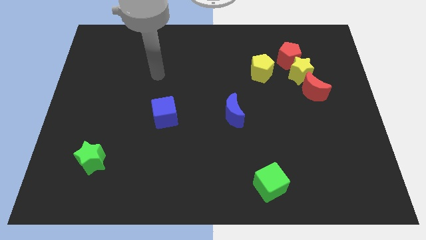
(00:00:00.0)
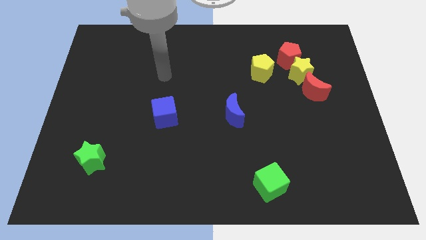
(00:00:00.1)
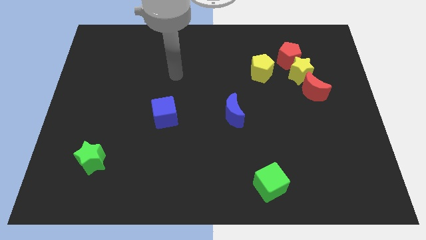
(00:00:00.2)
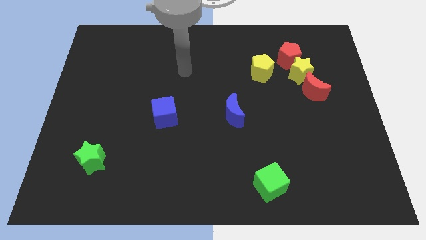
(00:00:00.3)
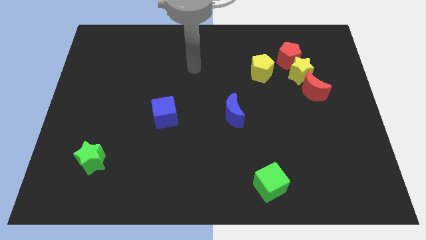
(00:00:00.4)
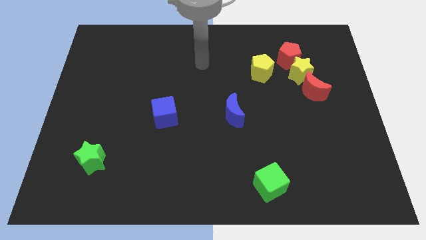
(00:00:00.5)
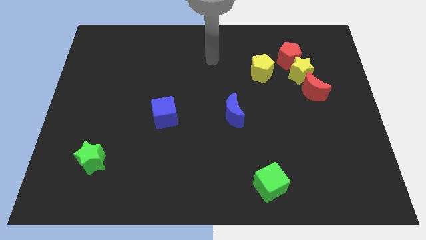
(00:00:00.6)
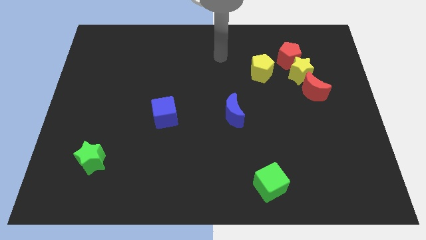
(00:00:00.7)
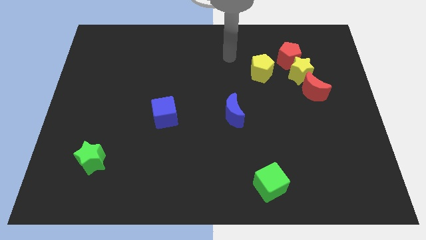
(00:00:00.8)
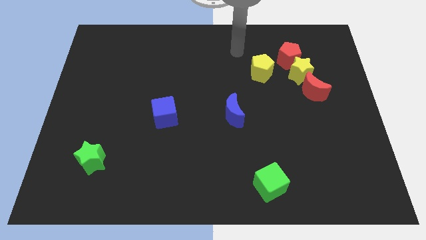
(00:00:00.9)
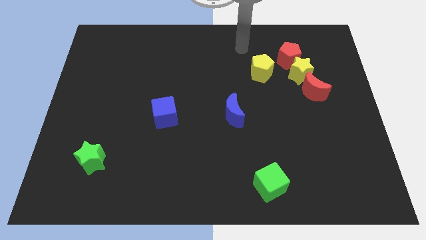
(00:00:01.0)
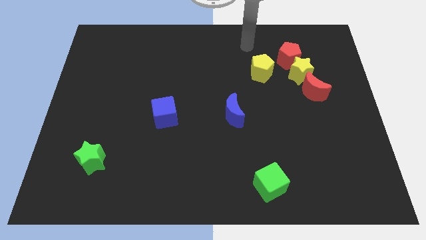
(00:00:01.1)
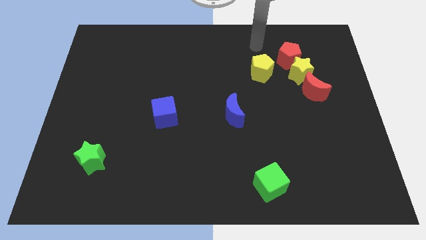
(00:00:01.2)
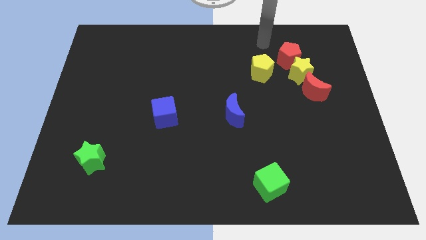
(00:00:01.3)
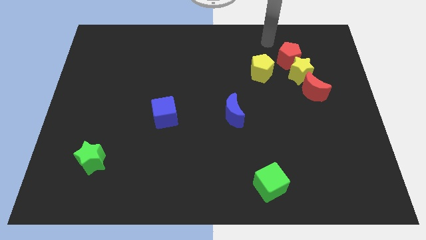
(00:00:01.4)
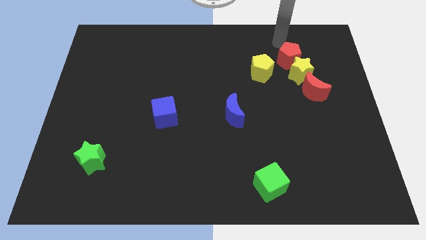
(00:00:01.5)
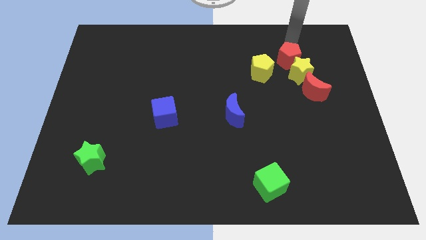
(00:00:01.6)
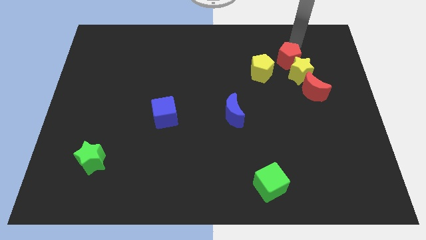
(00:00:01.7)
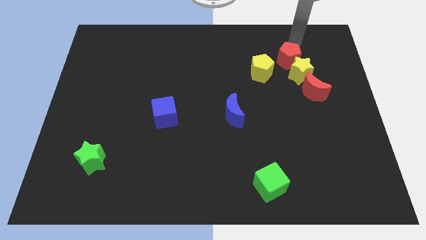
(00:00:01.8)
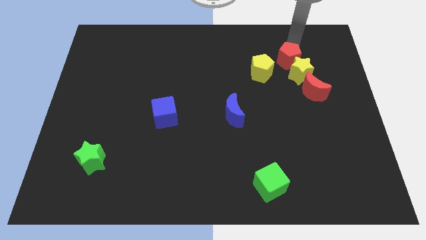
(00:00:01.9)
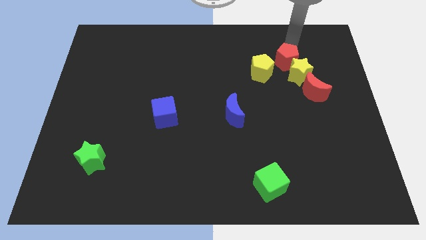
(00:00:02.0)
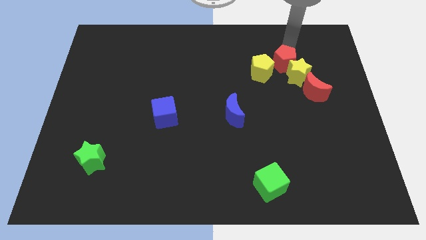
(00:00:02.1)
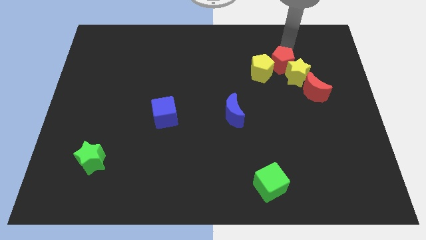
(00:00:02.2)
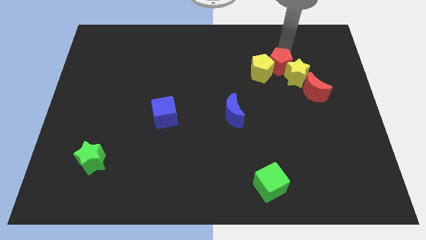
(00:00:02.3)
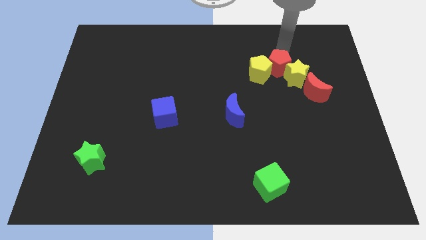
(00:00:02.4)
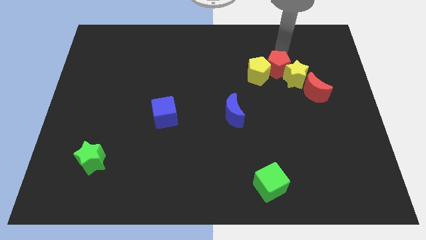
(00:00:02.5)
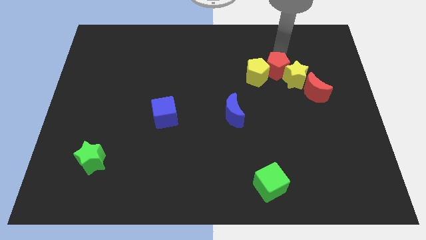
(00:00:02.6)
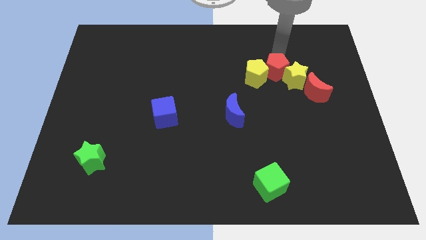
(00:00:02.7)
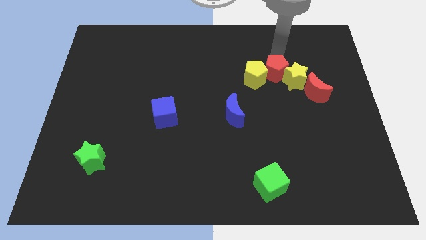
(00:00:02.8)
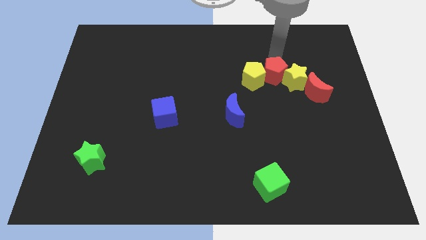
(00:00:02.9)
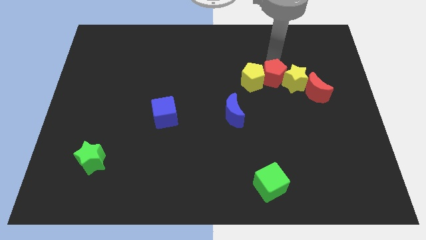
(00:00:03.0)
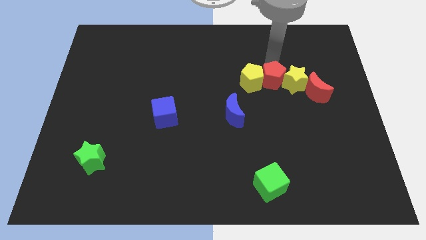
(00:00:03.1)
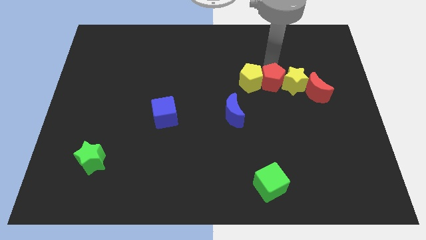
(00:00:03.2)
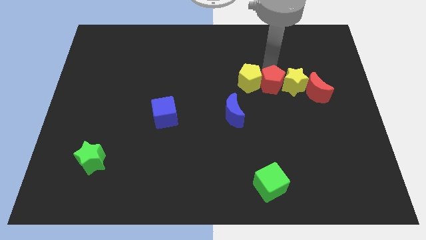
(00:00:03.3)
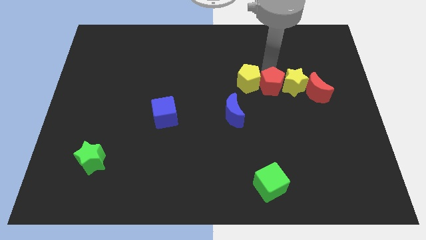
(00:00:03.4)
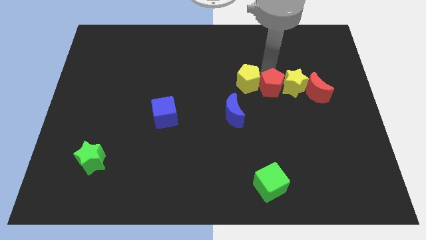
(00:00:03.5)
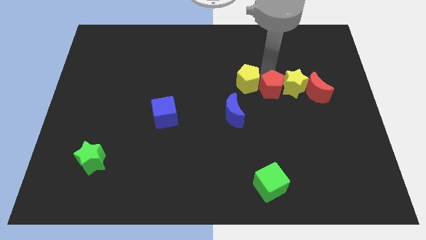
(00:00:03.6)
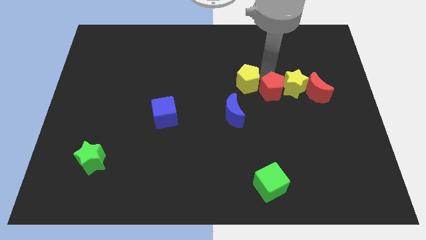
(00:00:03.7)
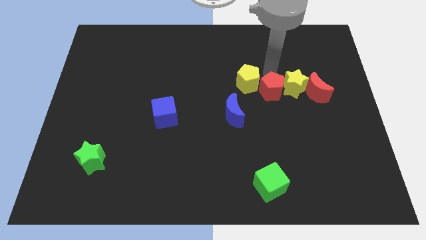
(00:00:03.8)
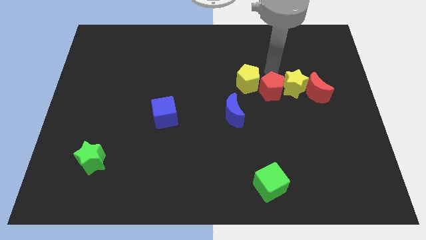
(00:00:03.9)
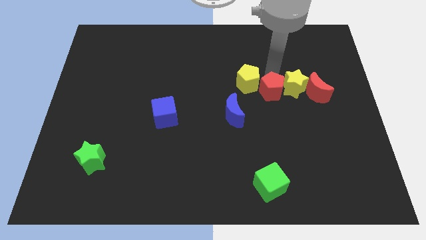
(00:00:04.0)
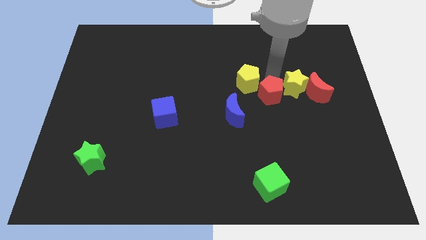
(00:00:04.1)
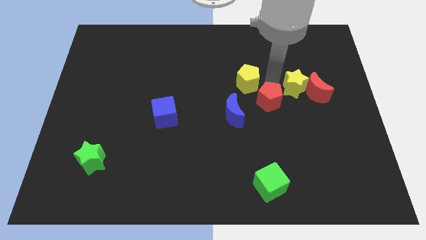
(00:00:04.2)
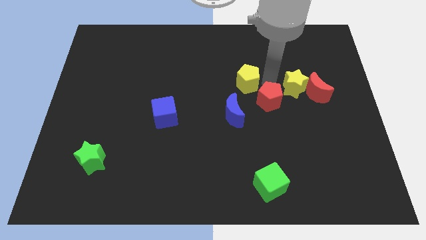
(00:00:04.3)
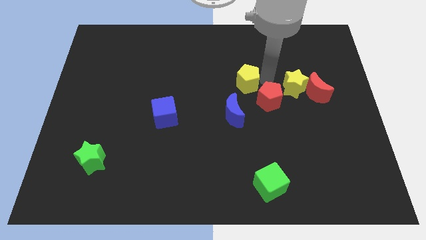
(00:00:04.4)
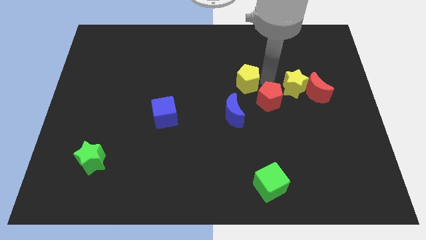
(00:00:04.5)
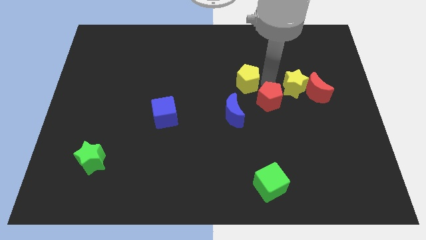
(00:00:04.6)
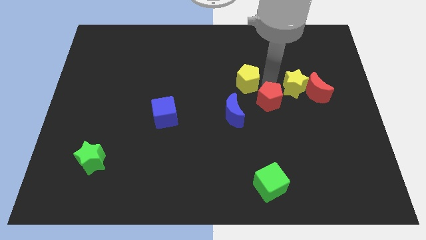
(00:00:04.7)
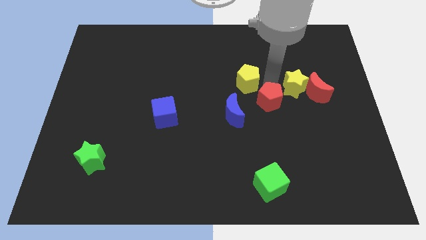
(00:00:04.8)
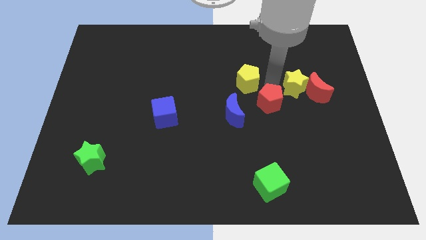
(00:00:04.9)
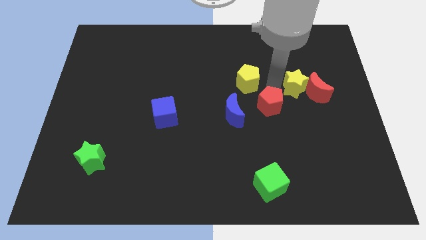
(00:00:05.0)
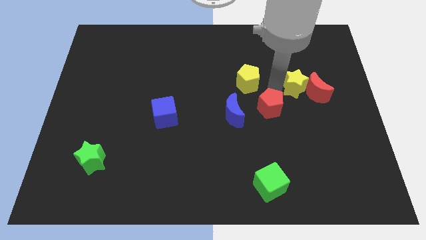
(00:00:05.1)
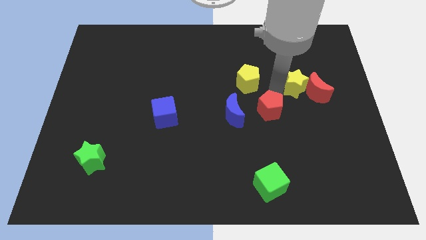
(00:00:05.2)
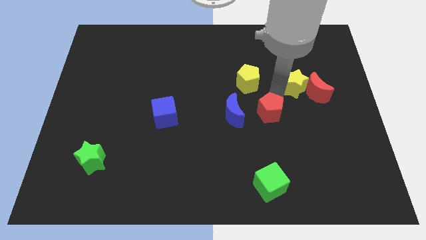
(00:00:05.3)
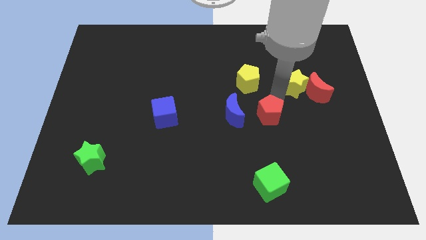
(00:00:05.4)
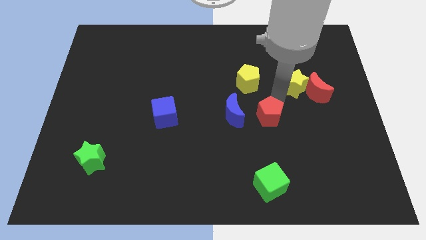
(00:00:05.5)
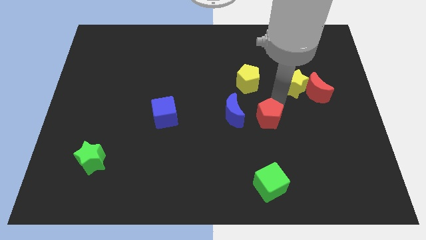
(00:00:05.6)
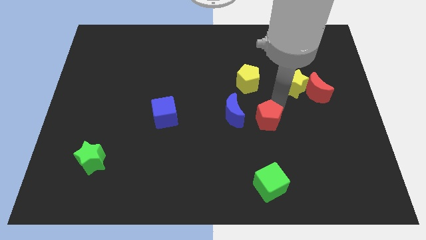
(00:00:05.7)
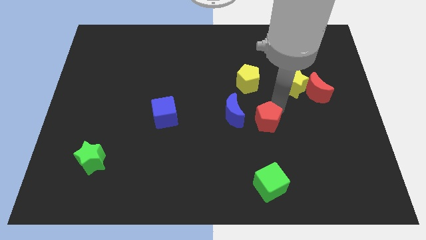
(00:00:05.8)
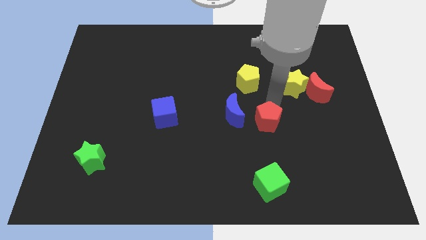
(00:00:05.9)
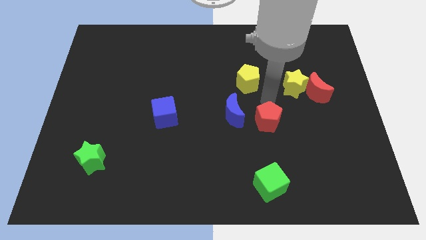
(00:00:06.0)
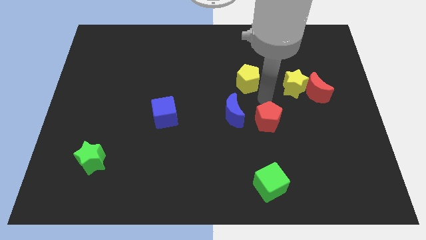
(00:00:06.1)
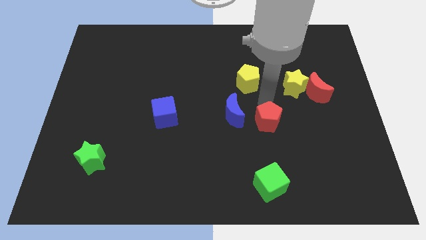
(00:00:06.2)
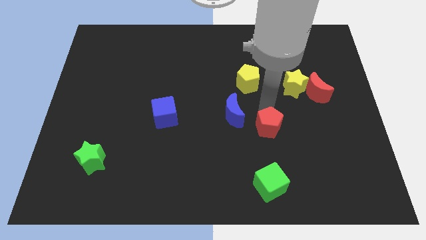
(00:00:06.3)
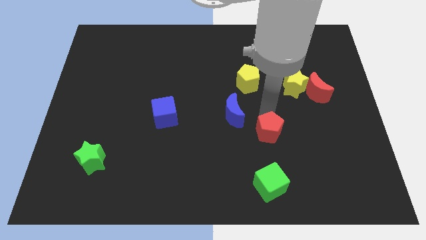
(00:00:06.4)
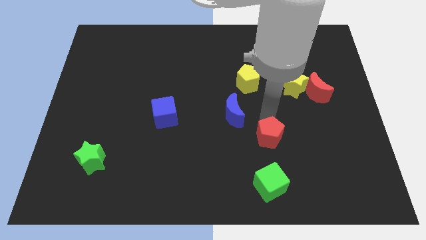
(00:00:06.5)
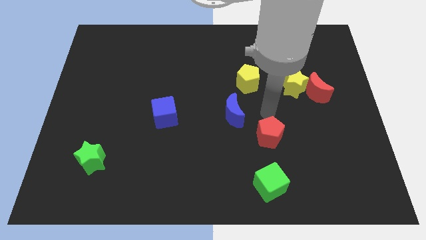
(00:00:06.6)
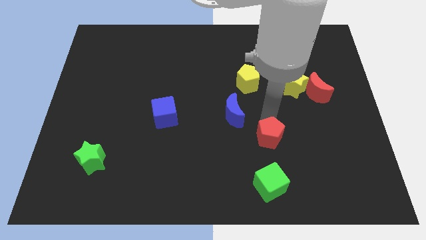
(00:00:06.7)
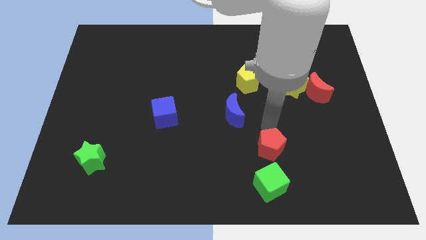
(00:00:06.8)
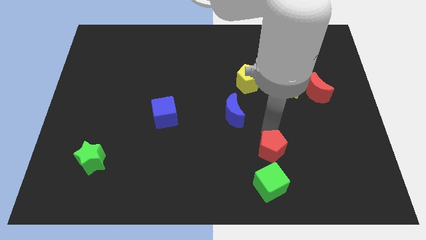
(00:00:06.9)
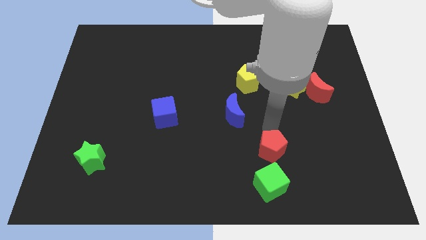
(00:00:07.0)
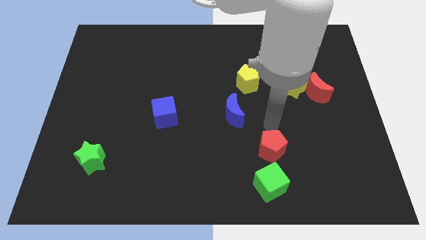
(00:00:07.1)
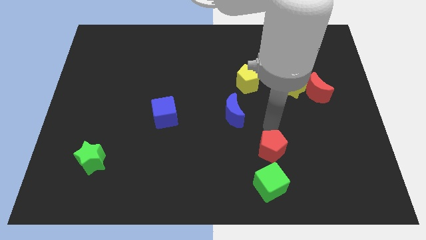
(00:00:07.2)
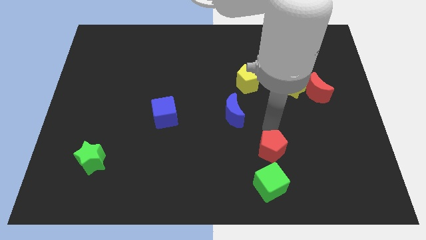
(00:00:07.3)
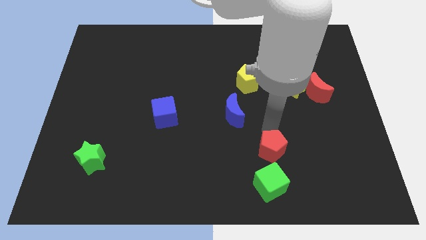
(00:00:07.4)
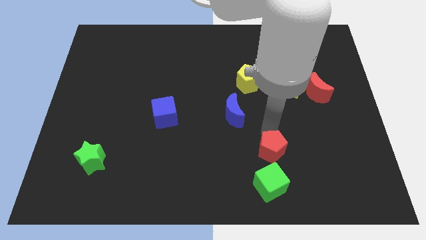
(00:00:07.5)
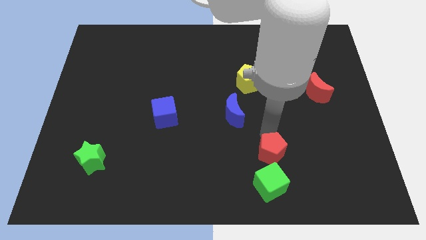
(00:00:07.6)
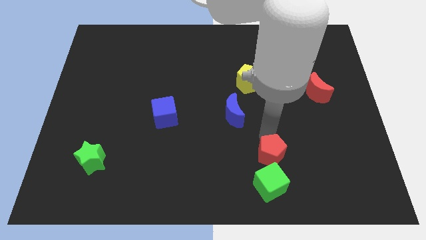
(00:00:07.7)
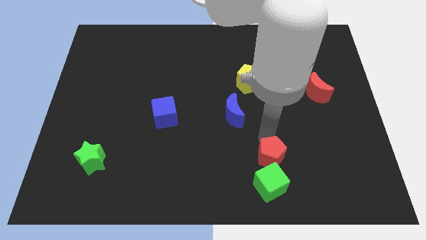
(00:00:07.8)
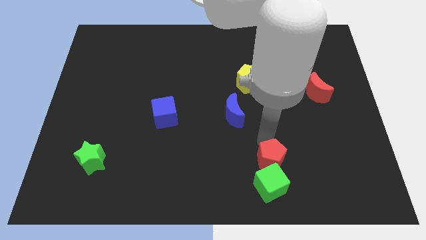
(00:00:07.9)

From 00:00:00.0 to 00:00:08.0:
move the red pentagon towards the green cube
